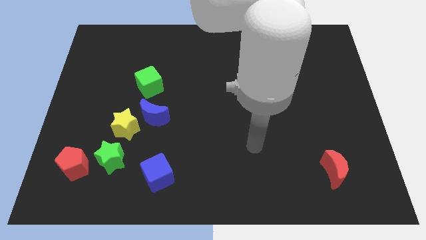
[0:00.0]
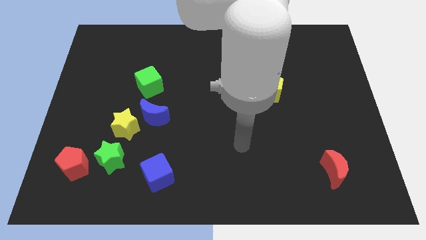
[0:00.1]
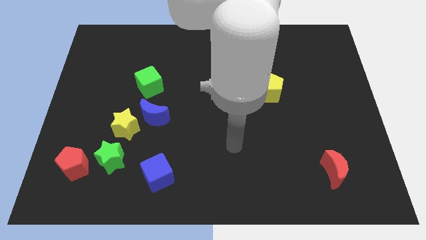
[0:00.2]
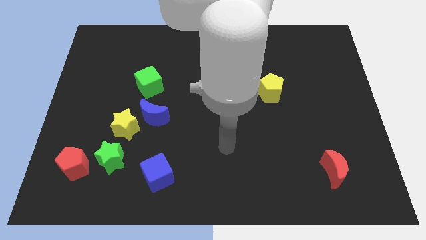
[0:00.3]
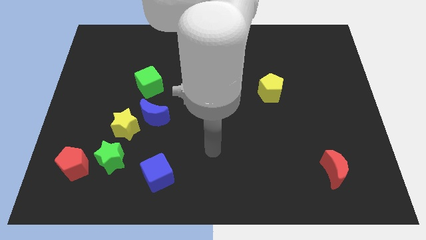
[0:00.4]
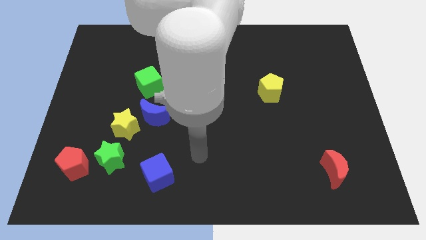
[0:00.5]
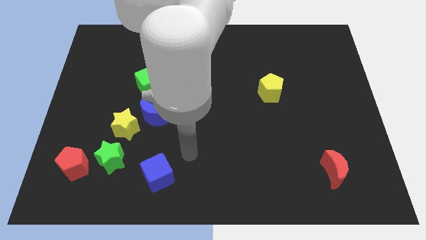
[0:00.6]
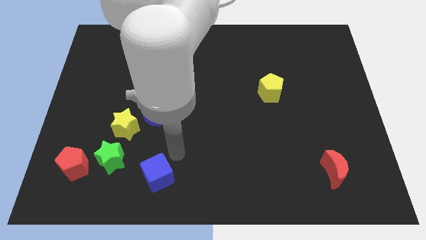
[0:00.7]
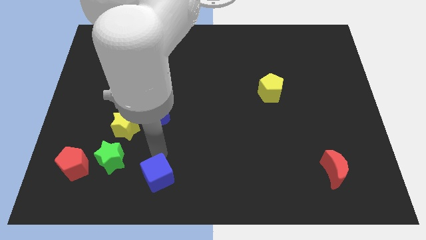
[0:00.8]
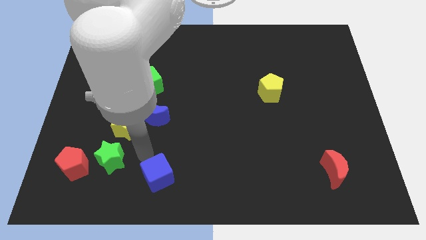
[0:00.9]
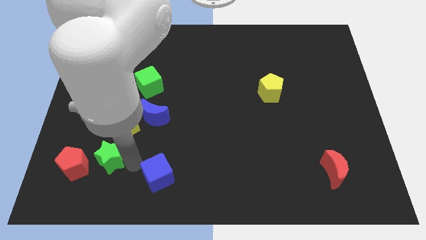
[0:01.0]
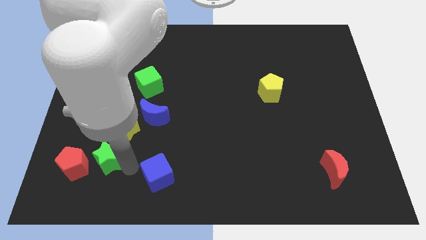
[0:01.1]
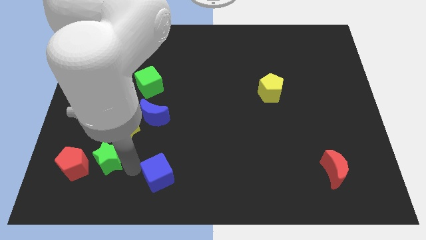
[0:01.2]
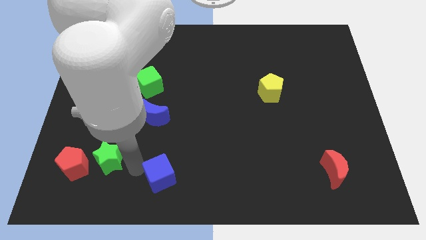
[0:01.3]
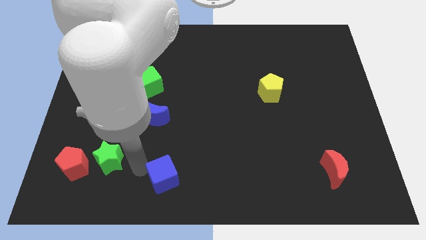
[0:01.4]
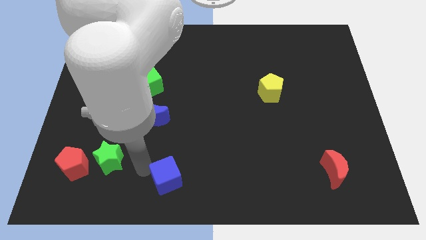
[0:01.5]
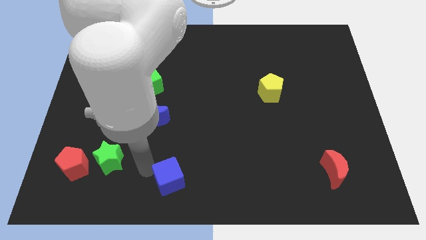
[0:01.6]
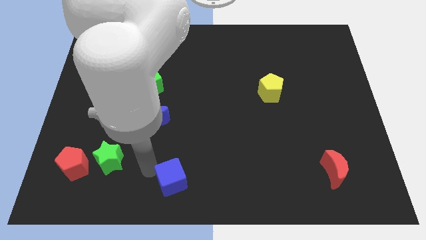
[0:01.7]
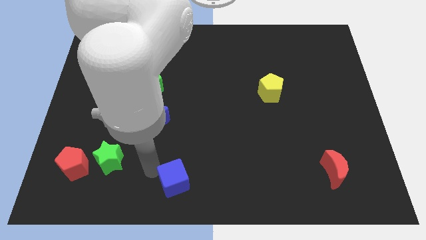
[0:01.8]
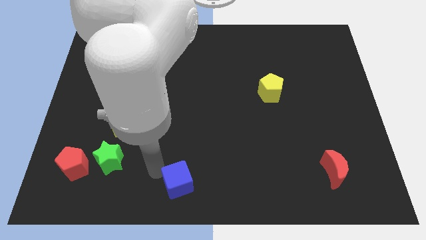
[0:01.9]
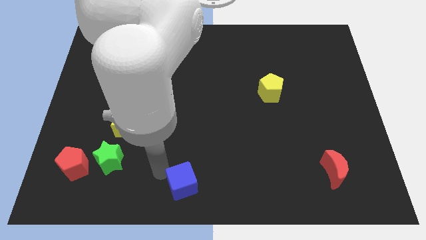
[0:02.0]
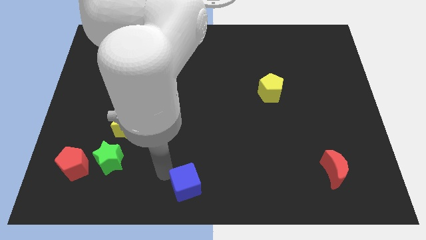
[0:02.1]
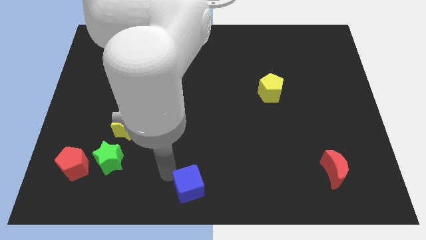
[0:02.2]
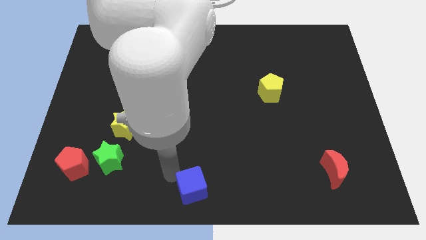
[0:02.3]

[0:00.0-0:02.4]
slide the blue cube to the right a little bit

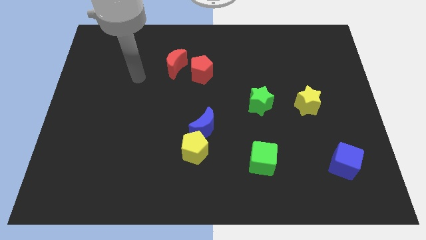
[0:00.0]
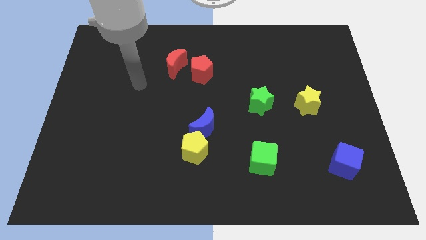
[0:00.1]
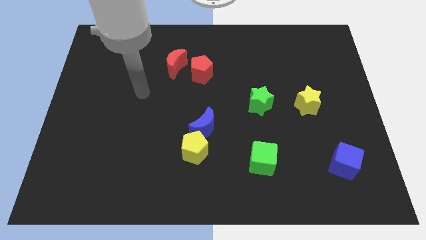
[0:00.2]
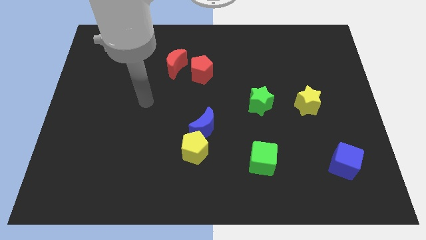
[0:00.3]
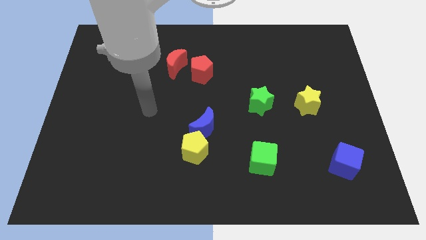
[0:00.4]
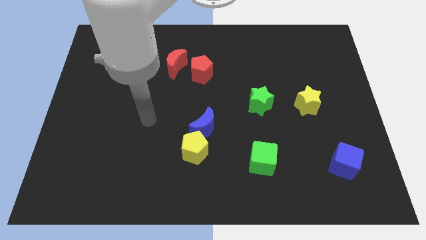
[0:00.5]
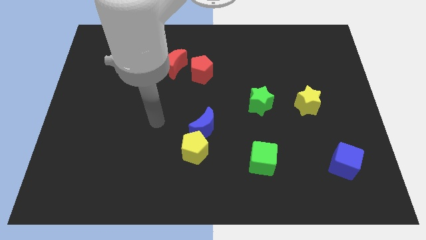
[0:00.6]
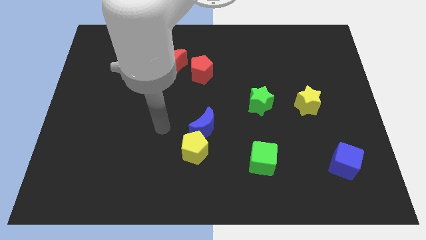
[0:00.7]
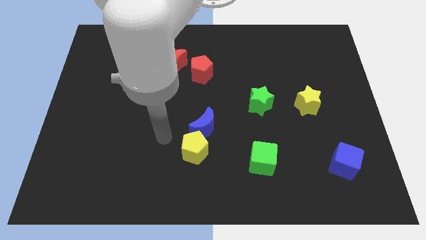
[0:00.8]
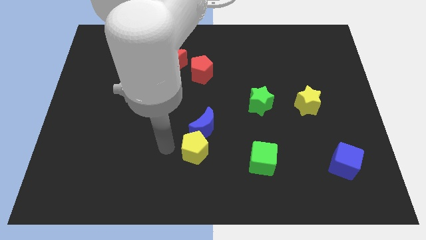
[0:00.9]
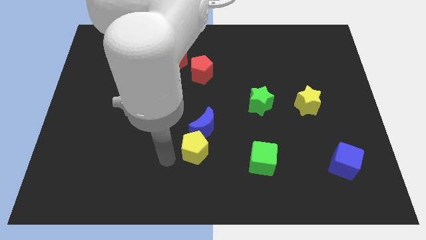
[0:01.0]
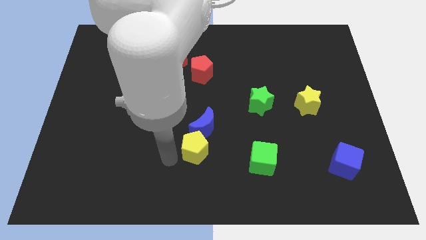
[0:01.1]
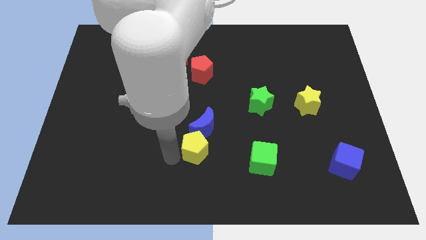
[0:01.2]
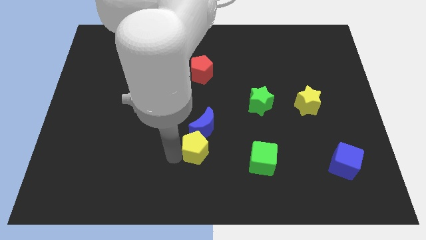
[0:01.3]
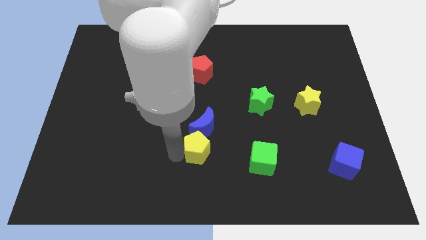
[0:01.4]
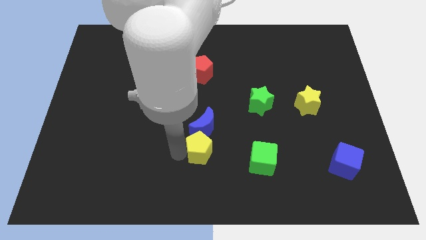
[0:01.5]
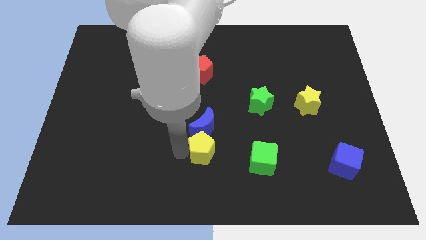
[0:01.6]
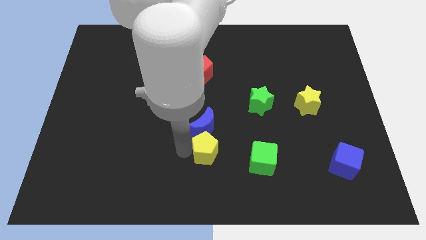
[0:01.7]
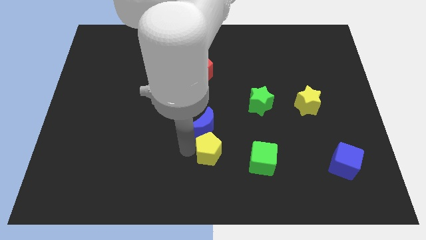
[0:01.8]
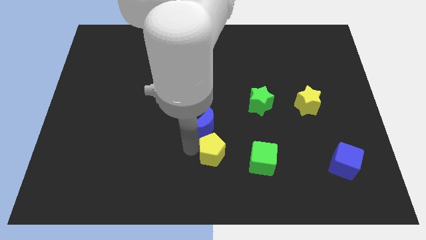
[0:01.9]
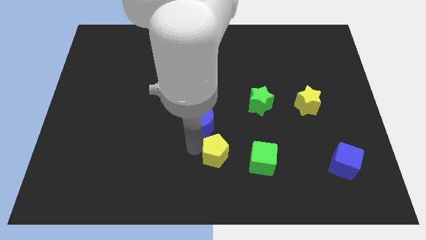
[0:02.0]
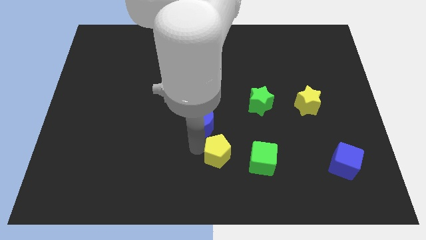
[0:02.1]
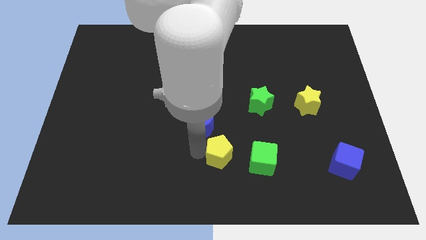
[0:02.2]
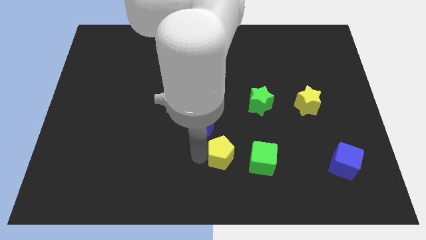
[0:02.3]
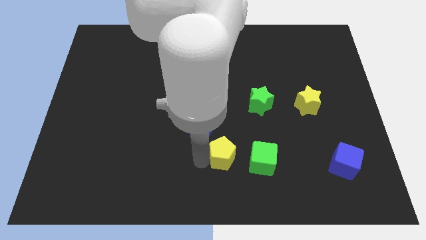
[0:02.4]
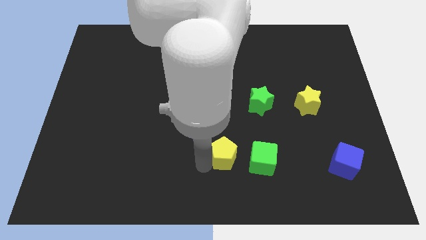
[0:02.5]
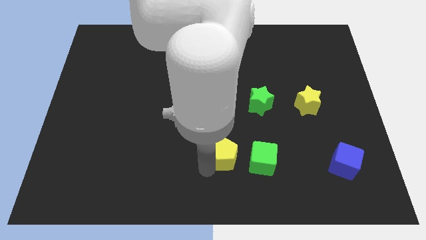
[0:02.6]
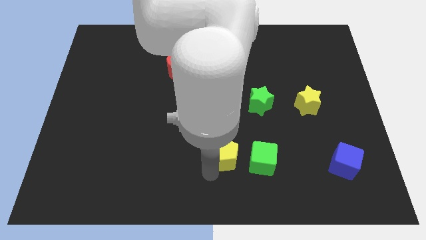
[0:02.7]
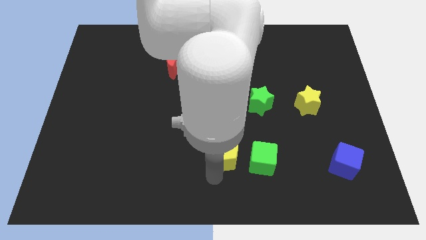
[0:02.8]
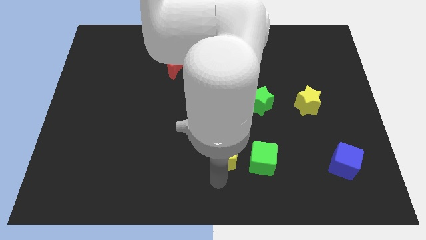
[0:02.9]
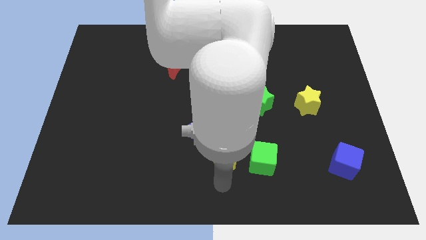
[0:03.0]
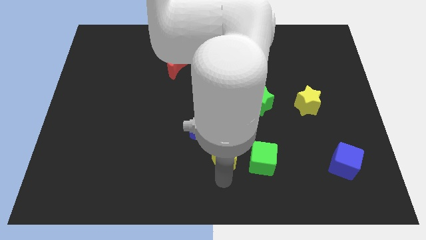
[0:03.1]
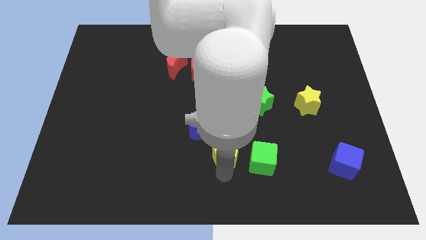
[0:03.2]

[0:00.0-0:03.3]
push the yellow pentagon slightly right

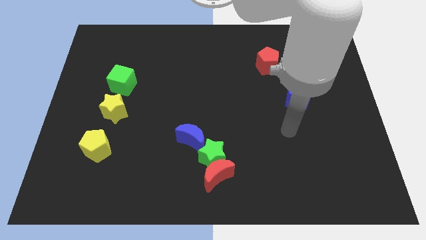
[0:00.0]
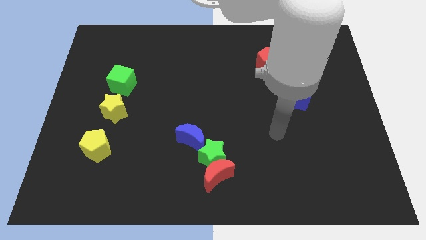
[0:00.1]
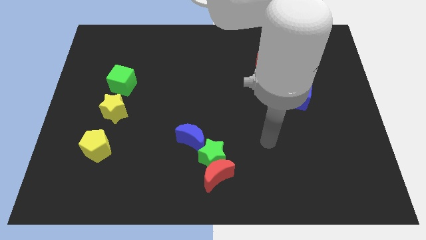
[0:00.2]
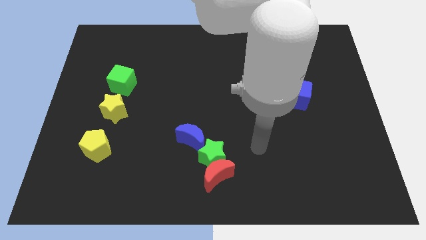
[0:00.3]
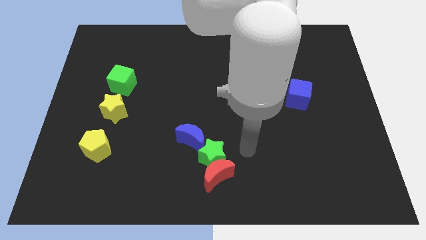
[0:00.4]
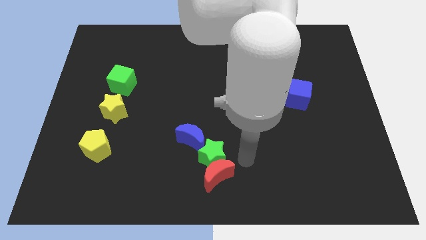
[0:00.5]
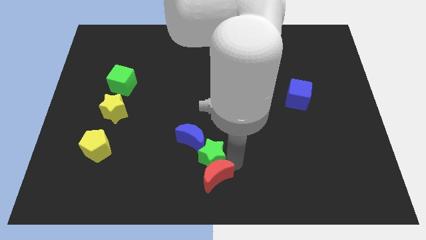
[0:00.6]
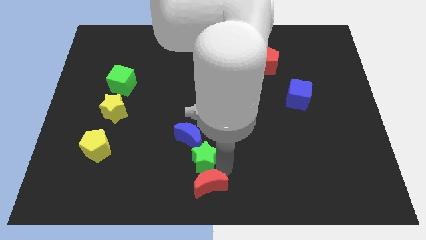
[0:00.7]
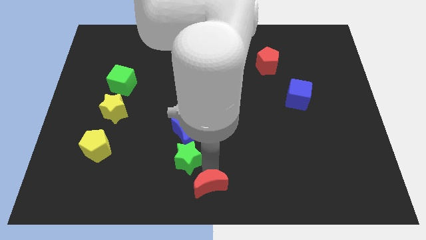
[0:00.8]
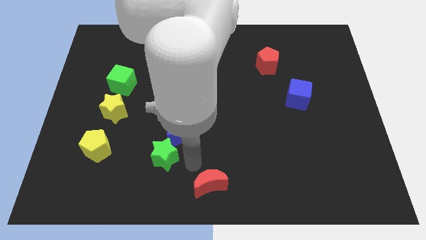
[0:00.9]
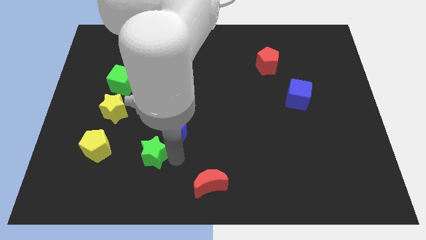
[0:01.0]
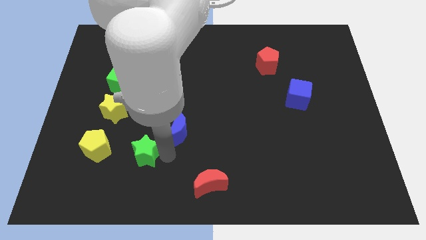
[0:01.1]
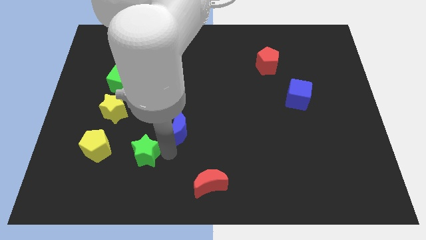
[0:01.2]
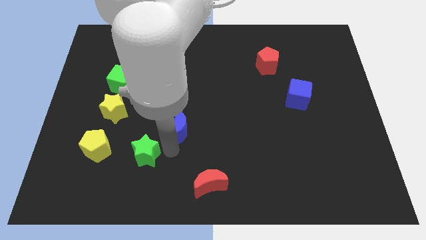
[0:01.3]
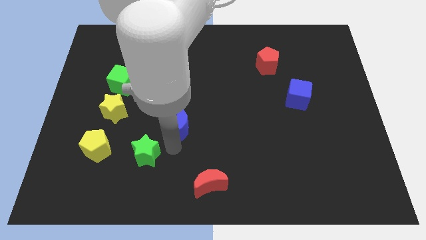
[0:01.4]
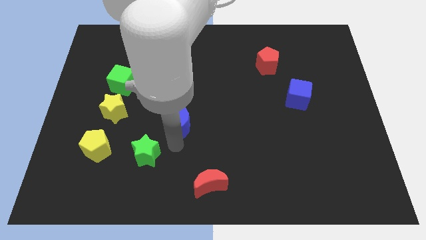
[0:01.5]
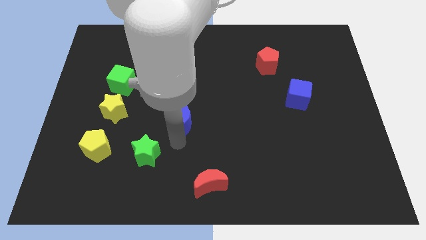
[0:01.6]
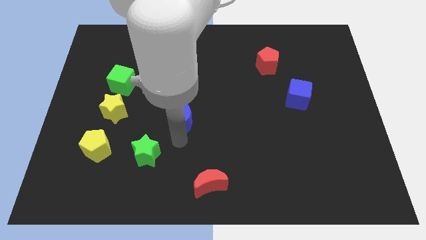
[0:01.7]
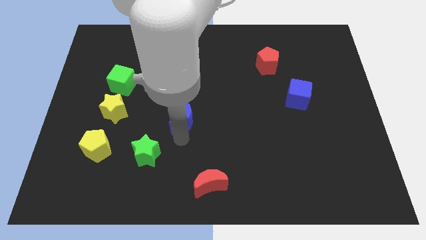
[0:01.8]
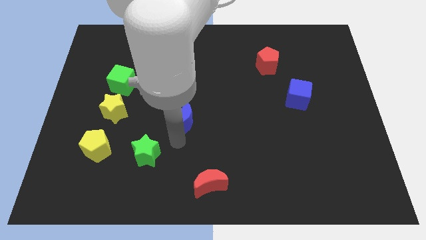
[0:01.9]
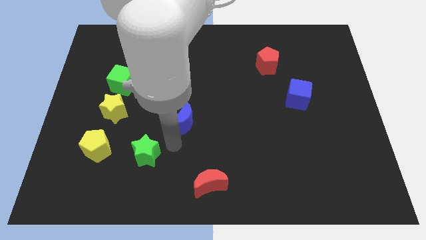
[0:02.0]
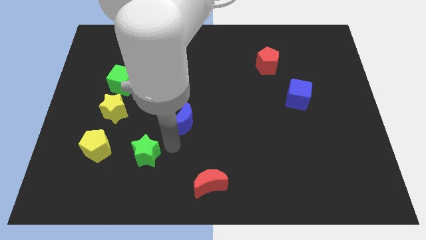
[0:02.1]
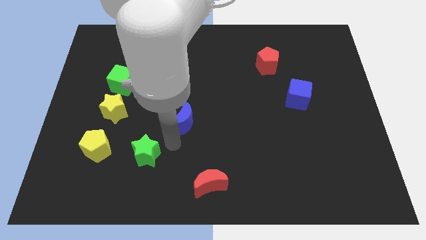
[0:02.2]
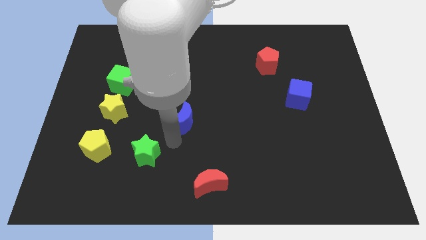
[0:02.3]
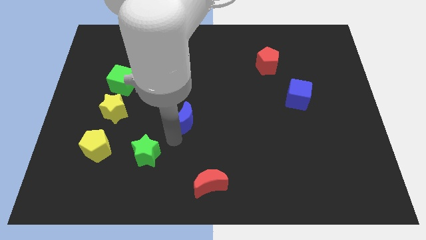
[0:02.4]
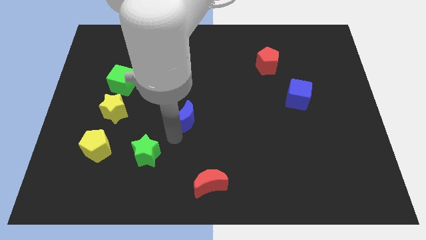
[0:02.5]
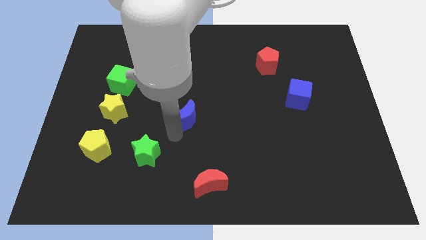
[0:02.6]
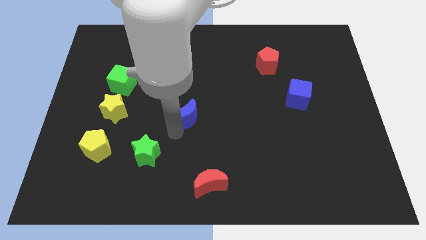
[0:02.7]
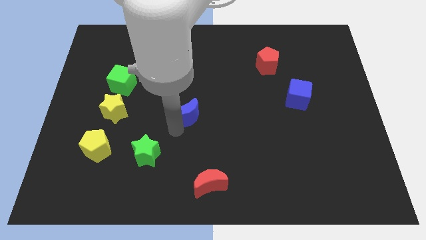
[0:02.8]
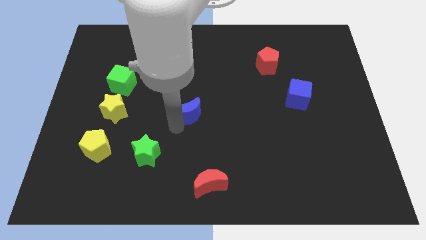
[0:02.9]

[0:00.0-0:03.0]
slightly slide the blue moon upwards
